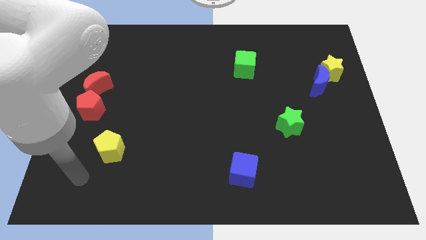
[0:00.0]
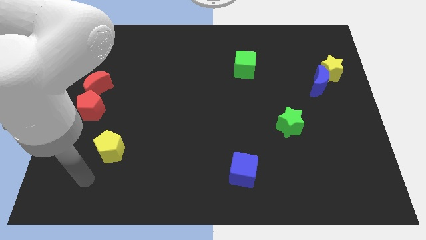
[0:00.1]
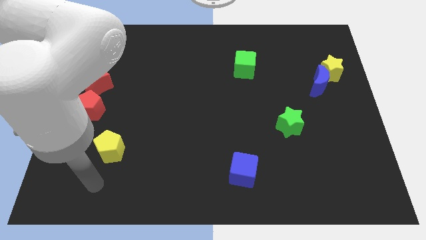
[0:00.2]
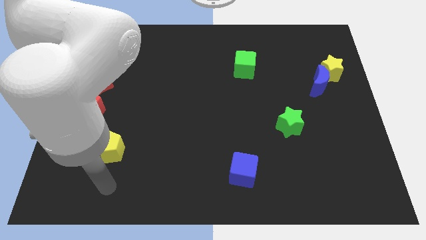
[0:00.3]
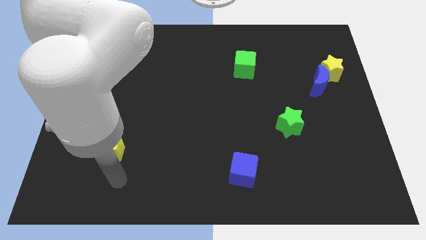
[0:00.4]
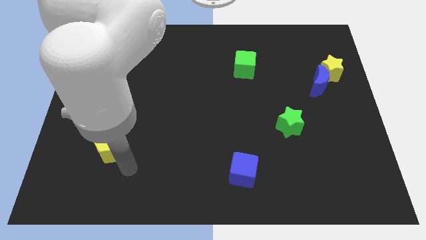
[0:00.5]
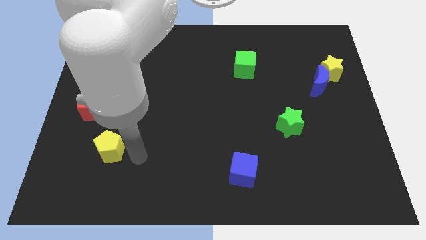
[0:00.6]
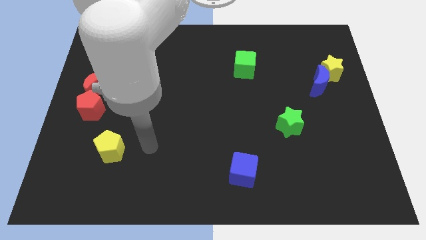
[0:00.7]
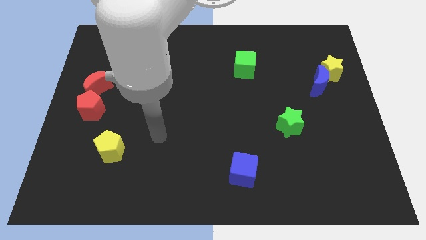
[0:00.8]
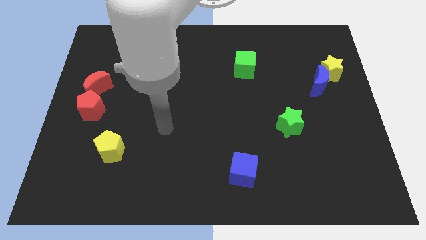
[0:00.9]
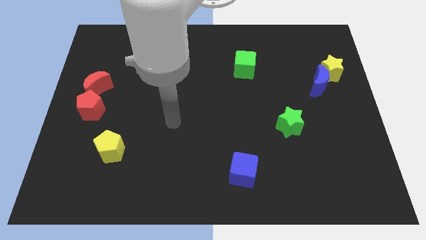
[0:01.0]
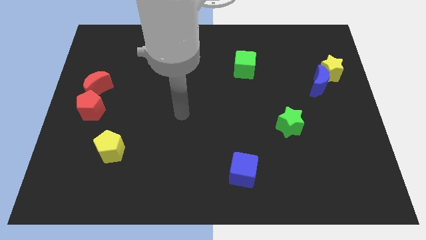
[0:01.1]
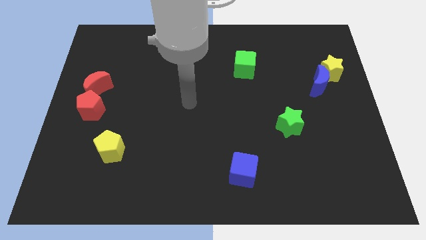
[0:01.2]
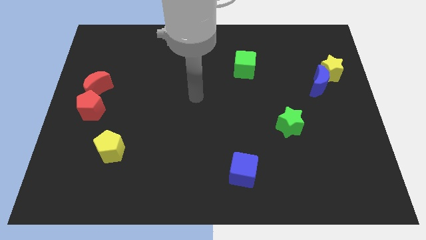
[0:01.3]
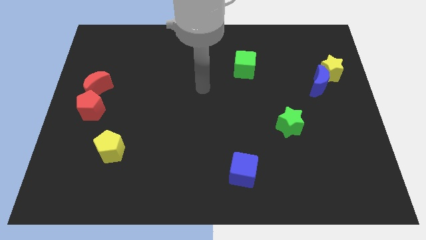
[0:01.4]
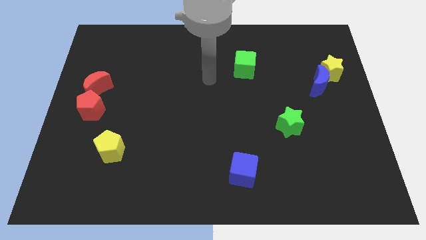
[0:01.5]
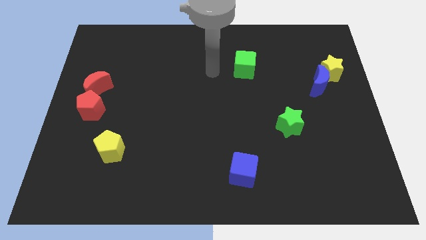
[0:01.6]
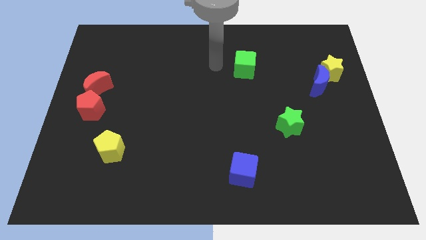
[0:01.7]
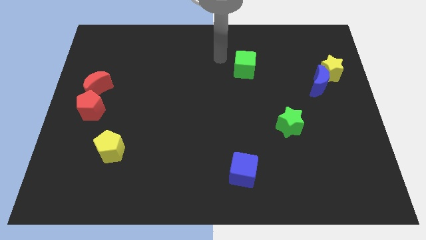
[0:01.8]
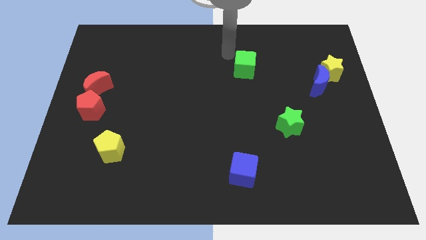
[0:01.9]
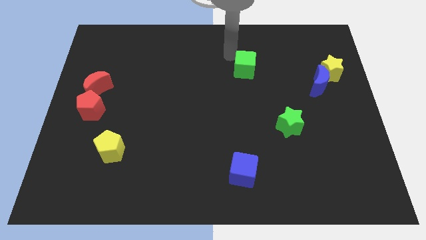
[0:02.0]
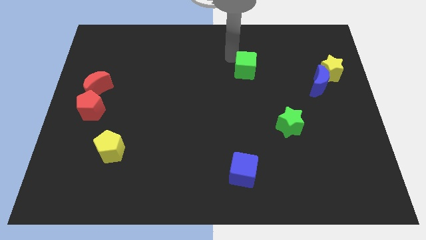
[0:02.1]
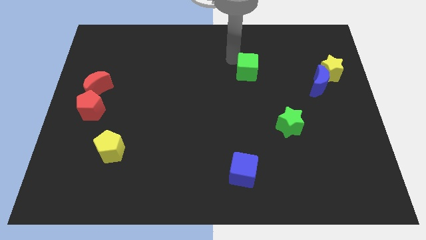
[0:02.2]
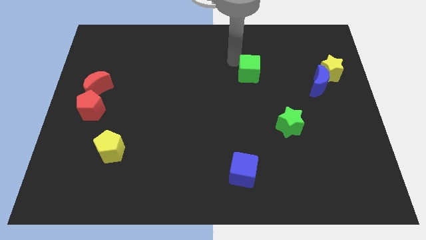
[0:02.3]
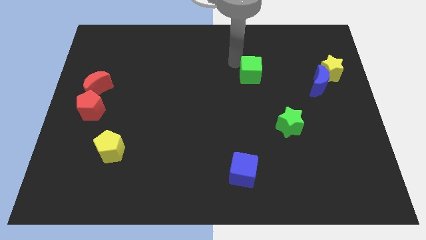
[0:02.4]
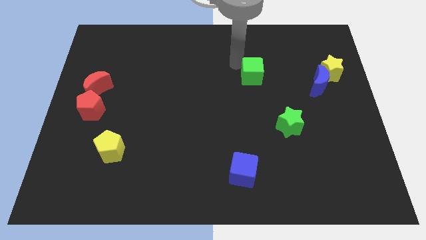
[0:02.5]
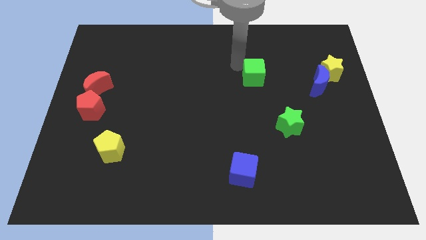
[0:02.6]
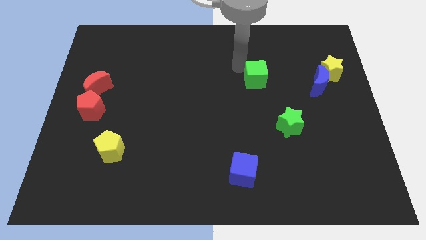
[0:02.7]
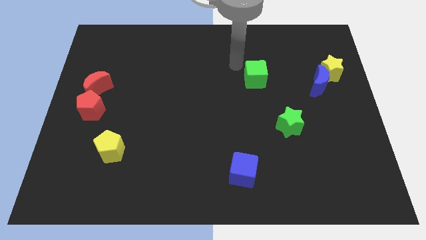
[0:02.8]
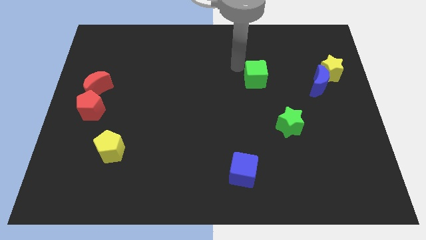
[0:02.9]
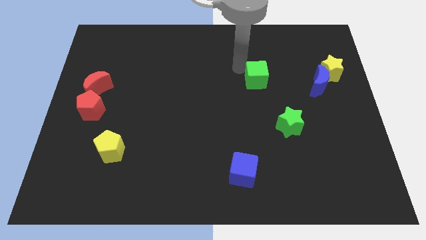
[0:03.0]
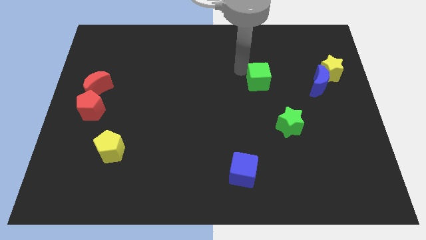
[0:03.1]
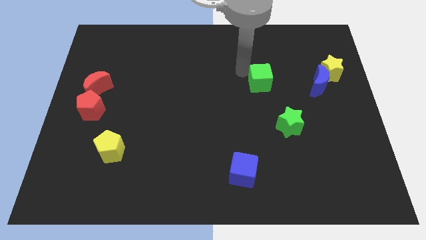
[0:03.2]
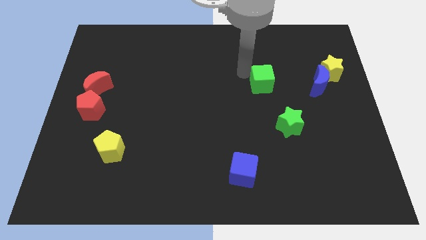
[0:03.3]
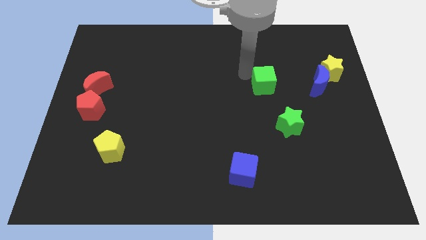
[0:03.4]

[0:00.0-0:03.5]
move the green cube diagonally down and right a little

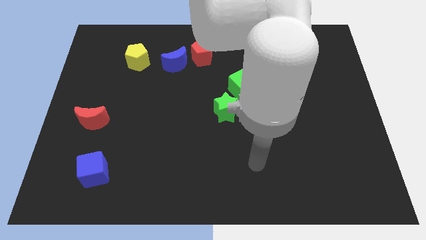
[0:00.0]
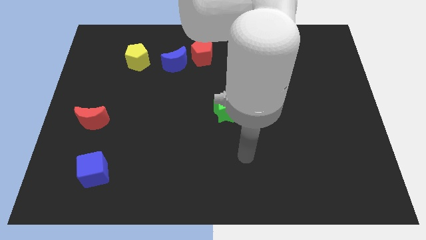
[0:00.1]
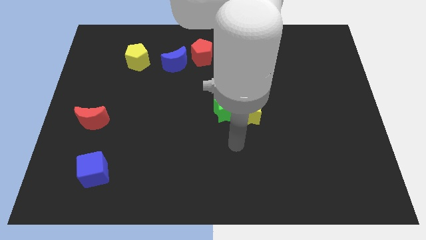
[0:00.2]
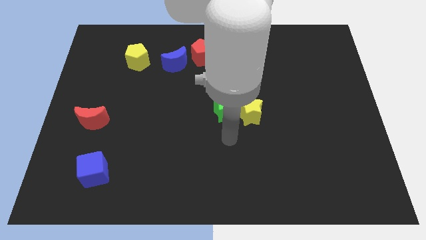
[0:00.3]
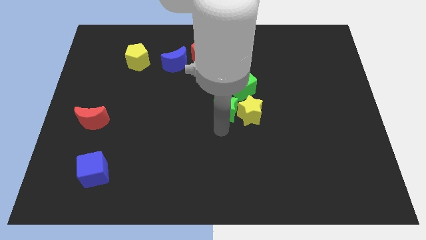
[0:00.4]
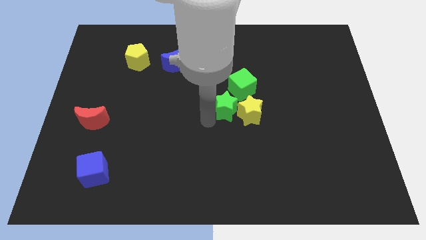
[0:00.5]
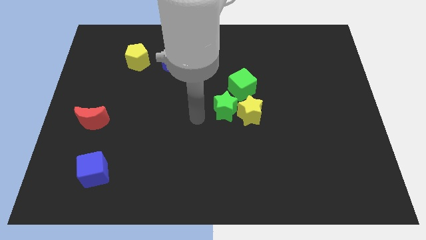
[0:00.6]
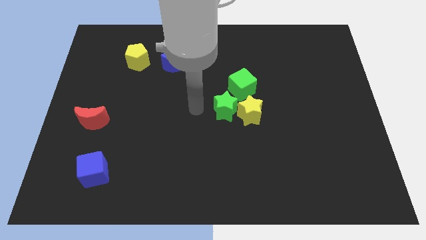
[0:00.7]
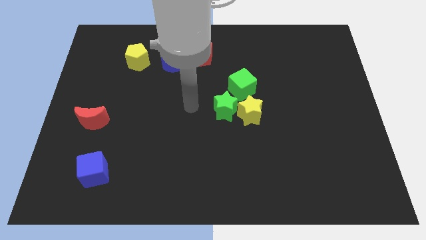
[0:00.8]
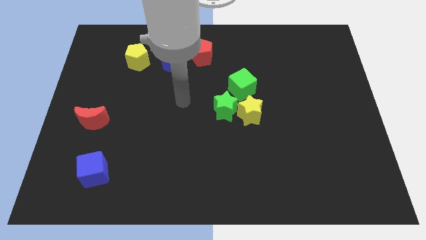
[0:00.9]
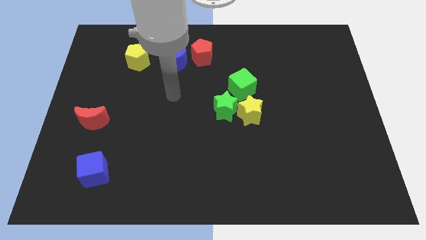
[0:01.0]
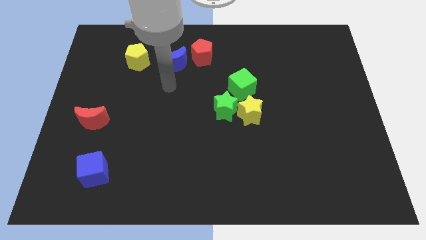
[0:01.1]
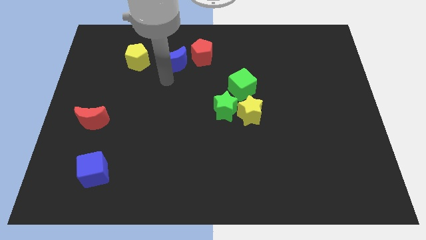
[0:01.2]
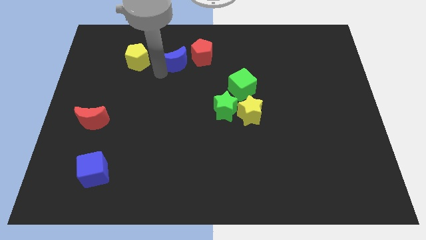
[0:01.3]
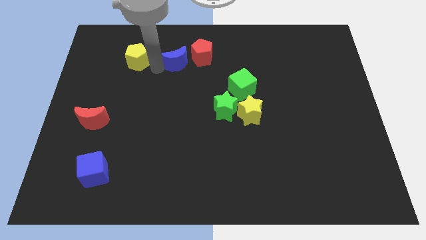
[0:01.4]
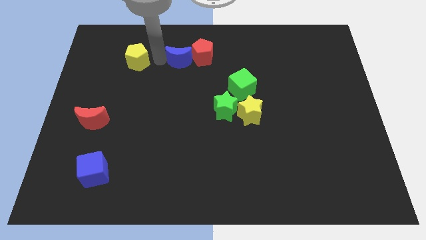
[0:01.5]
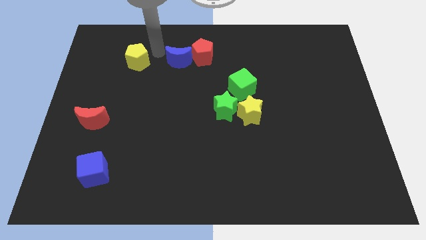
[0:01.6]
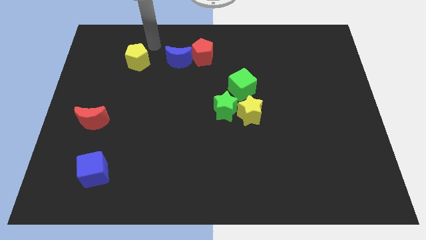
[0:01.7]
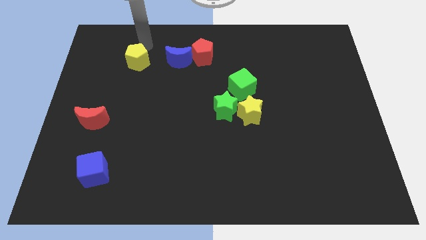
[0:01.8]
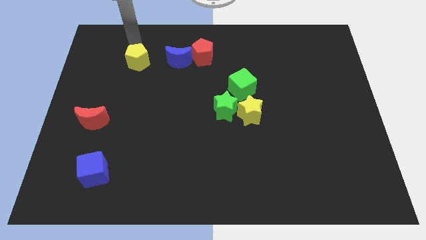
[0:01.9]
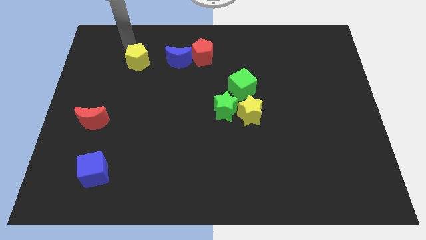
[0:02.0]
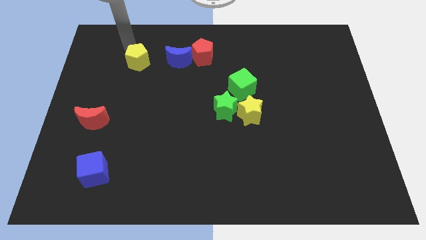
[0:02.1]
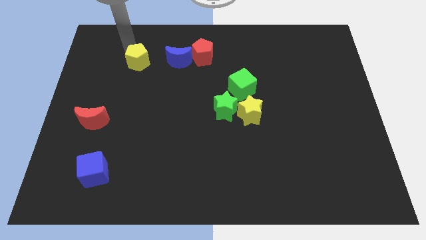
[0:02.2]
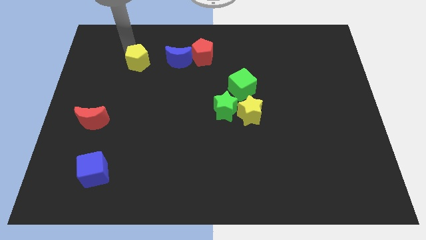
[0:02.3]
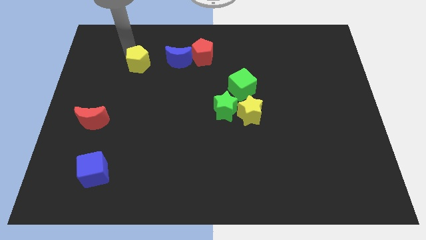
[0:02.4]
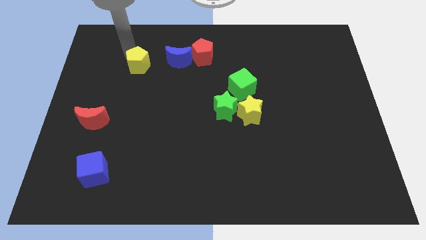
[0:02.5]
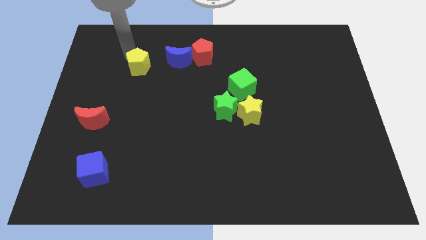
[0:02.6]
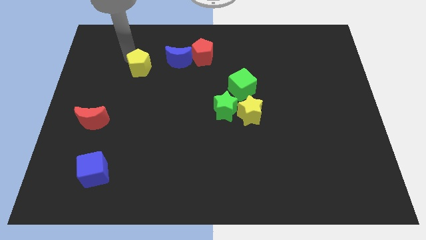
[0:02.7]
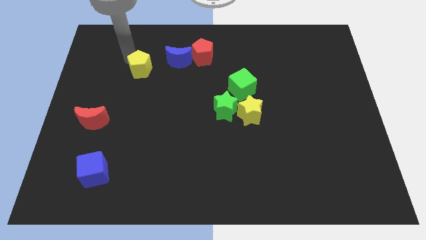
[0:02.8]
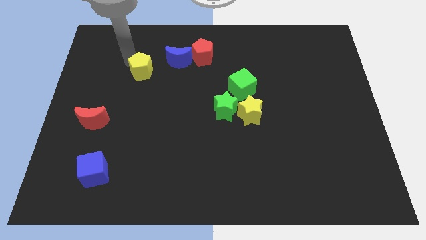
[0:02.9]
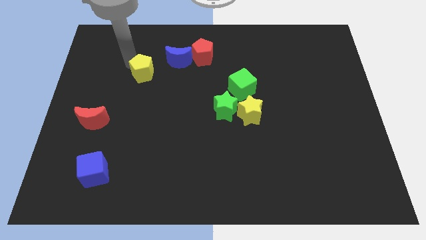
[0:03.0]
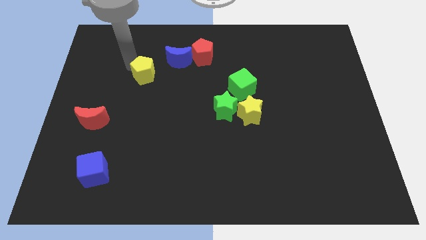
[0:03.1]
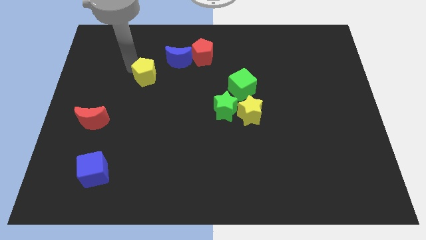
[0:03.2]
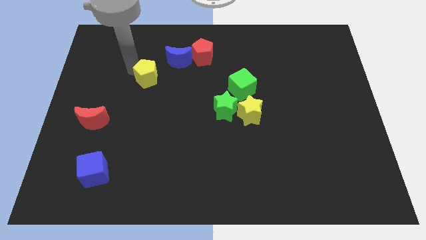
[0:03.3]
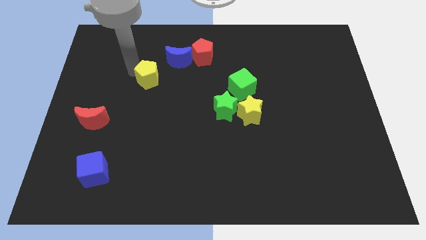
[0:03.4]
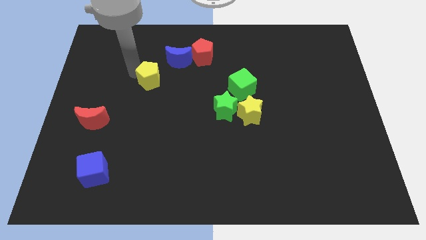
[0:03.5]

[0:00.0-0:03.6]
push the yellow pentagon diagonally down and right somewhat

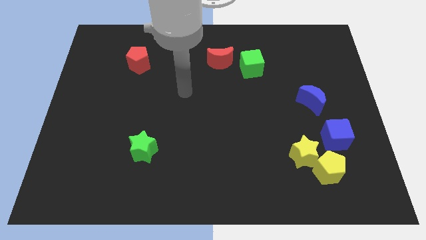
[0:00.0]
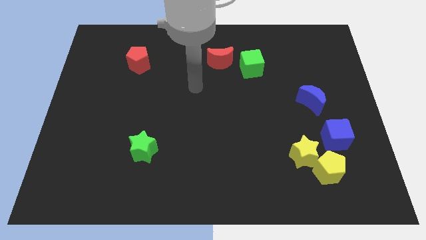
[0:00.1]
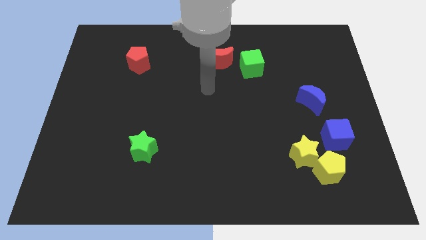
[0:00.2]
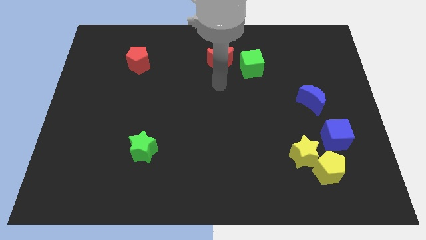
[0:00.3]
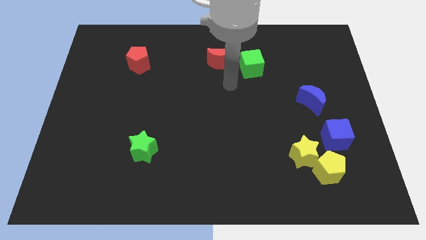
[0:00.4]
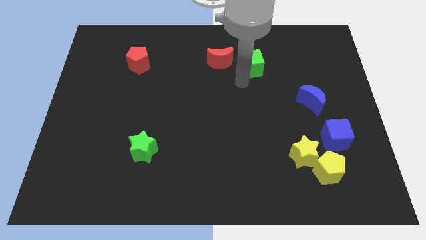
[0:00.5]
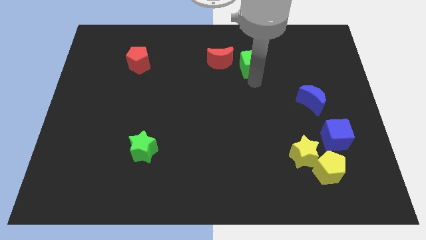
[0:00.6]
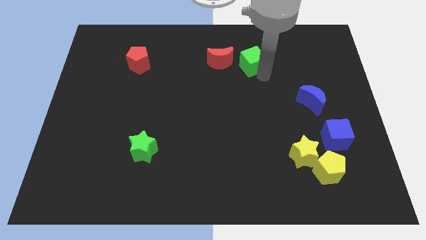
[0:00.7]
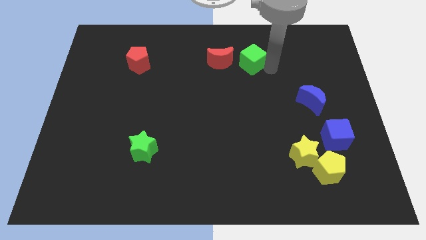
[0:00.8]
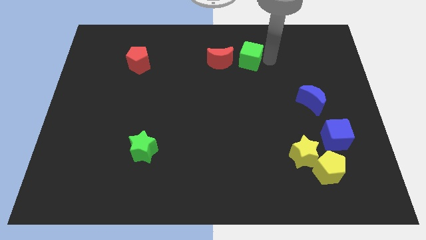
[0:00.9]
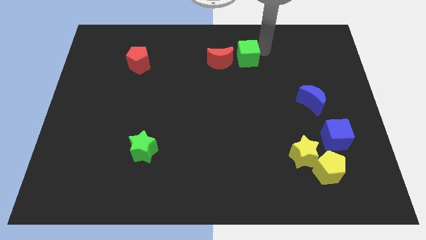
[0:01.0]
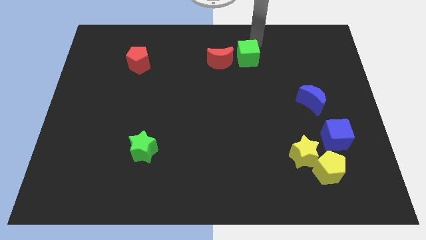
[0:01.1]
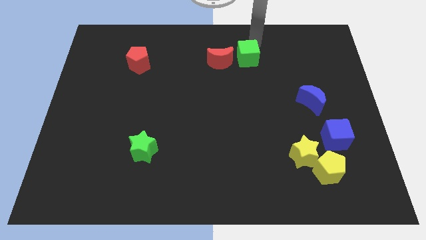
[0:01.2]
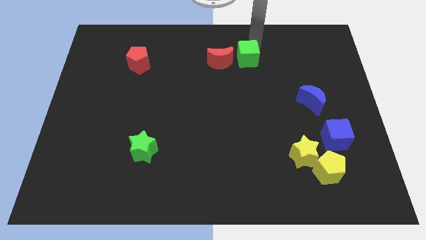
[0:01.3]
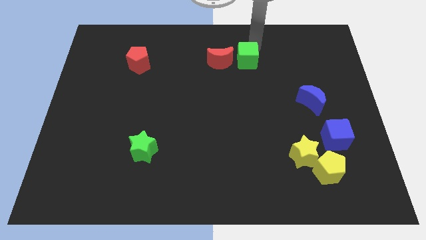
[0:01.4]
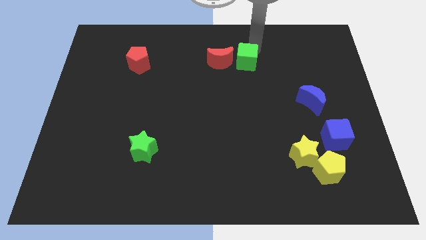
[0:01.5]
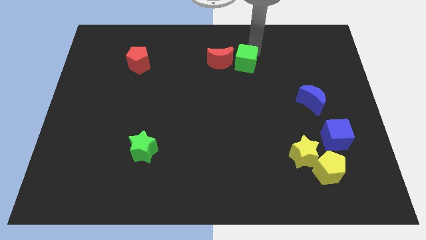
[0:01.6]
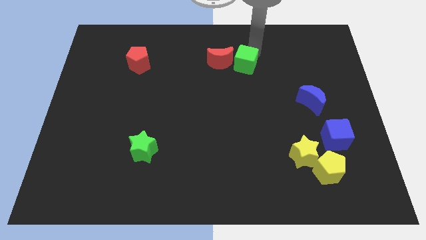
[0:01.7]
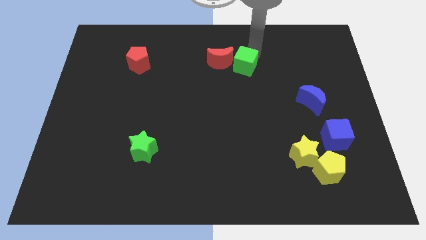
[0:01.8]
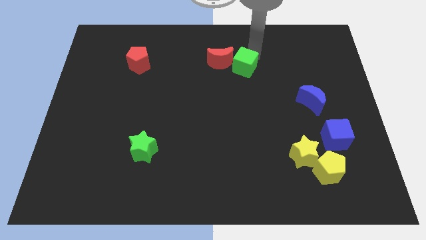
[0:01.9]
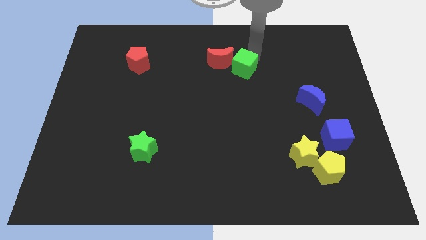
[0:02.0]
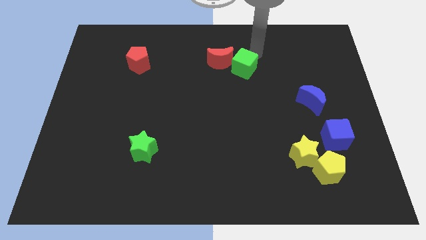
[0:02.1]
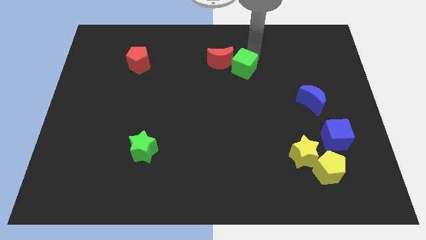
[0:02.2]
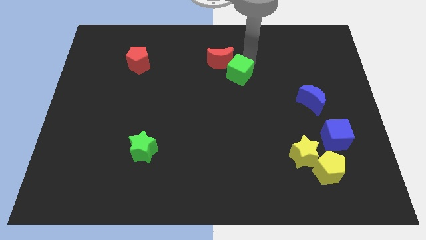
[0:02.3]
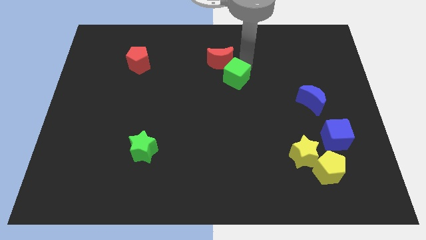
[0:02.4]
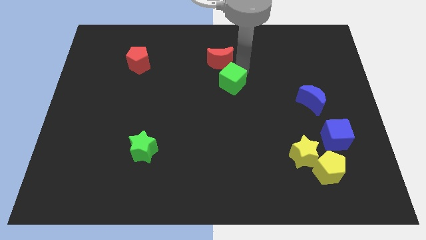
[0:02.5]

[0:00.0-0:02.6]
push the green cube diagonally downwards and left slightly
